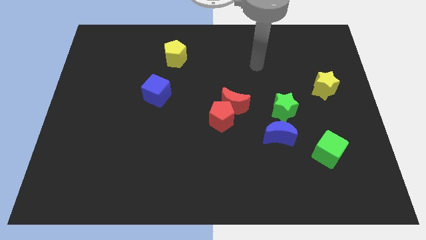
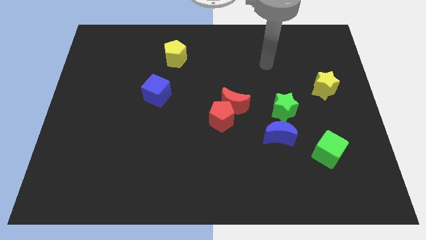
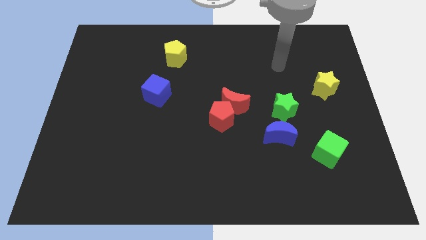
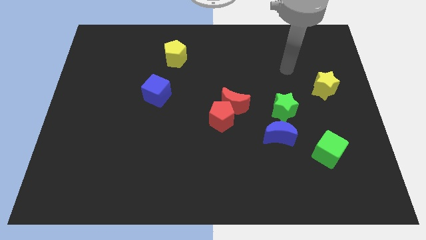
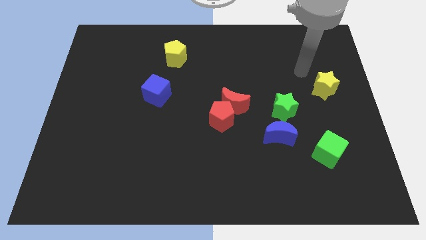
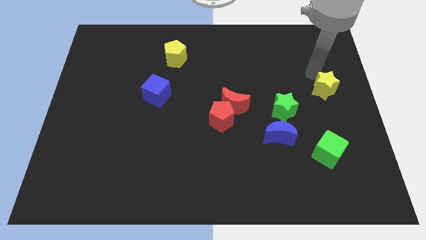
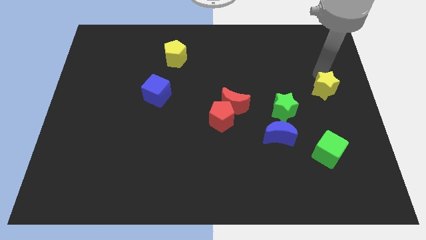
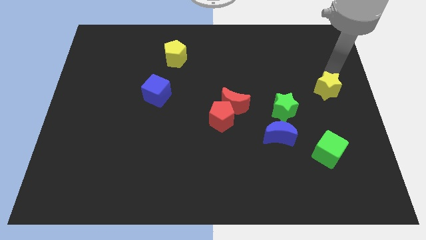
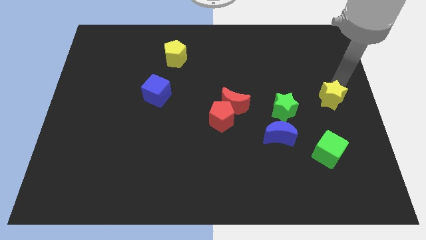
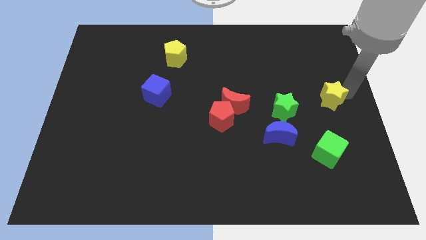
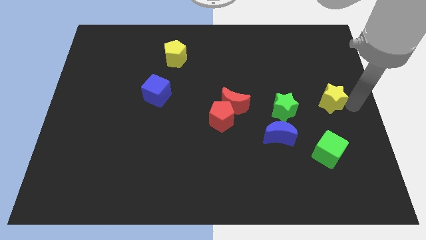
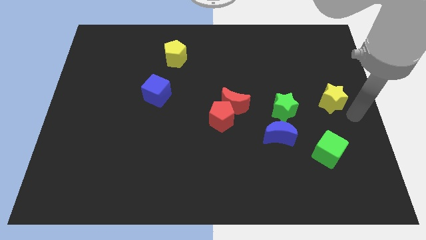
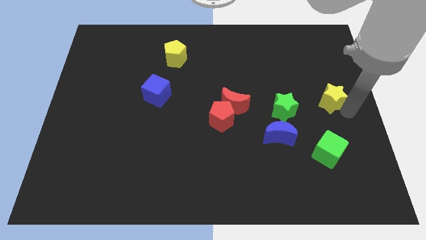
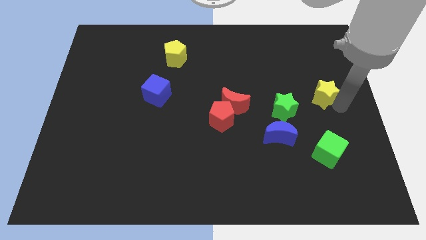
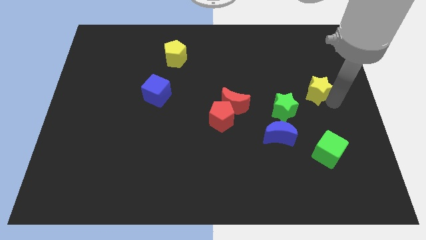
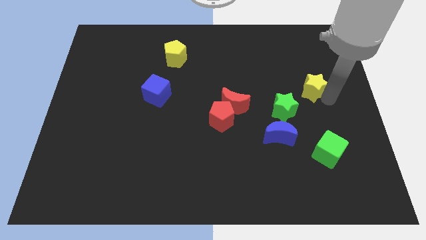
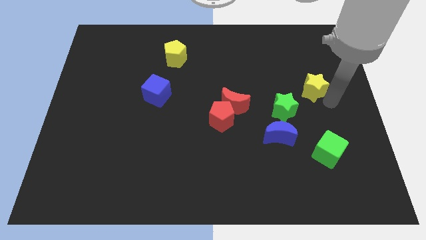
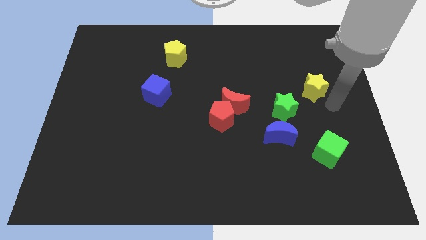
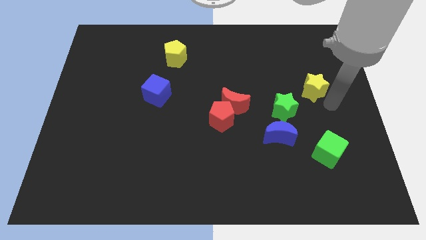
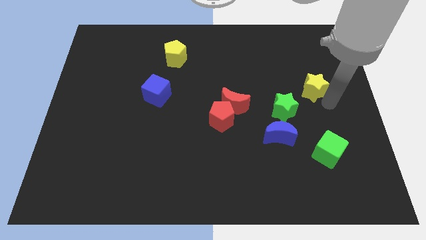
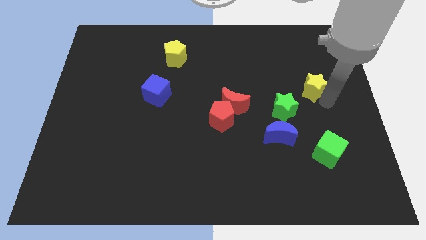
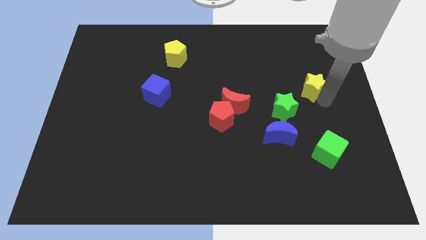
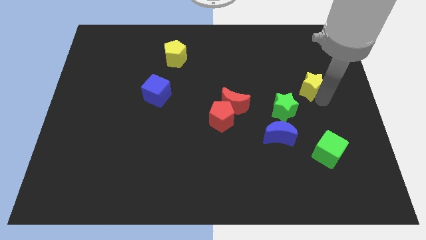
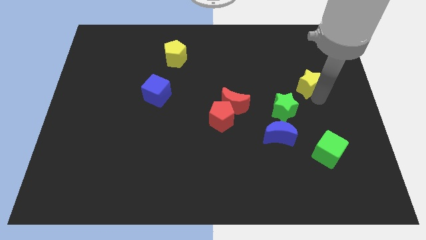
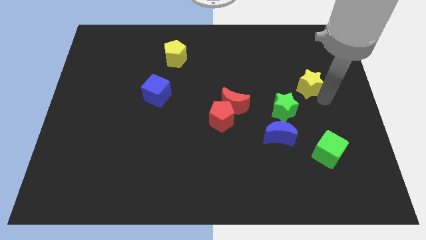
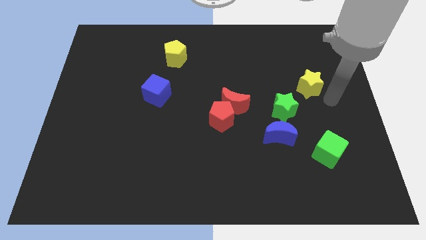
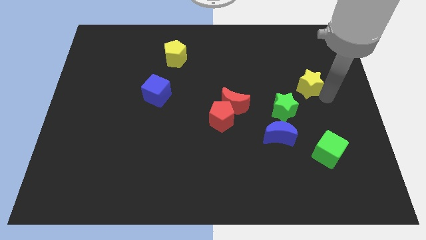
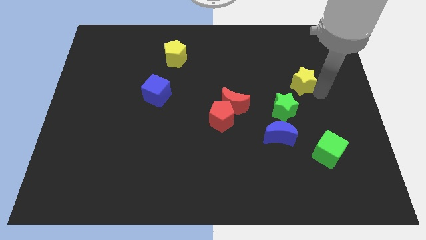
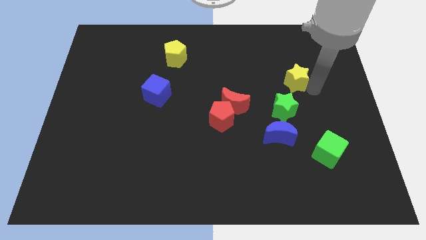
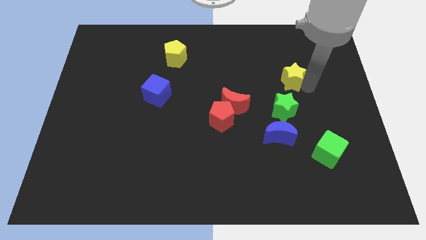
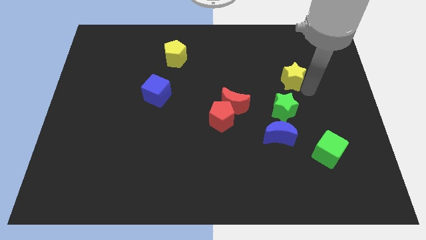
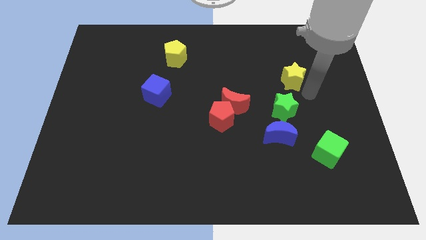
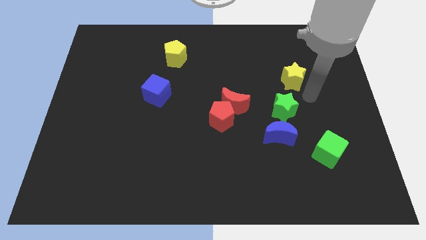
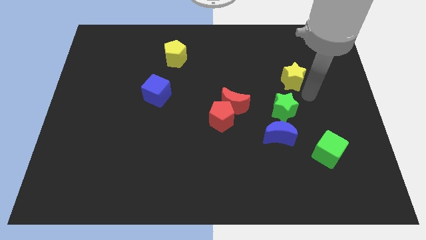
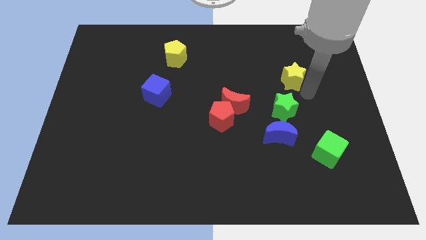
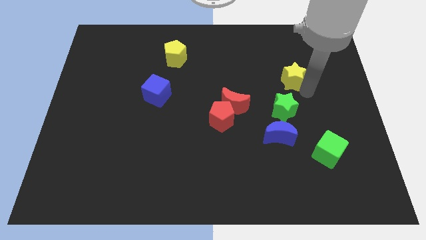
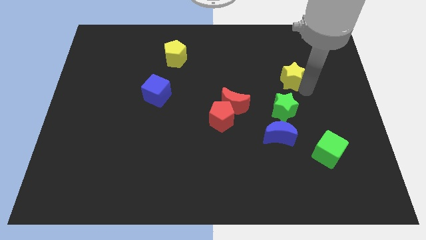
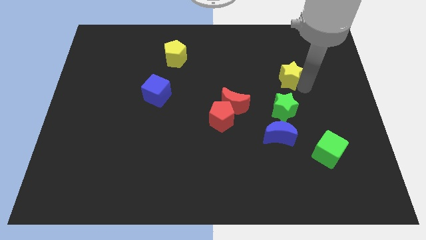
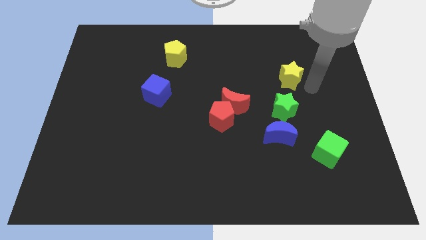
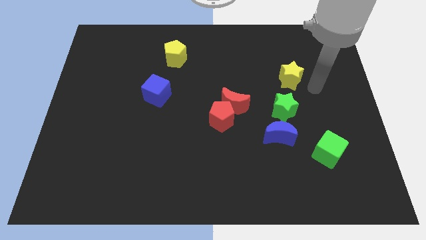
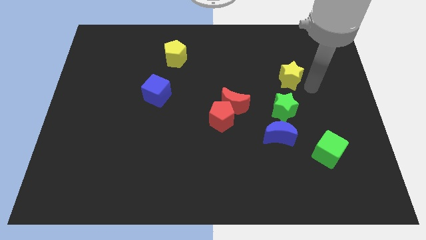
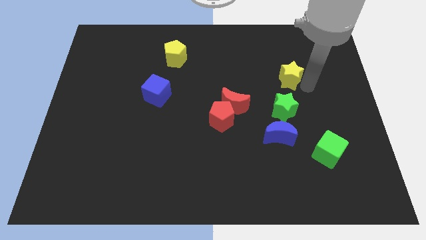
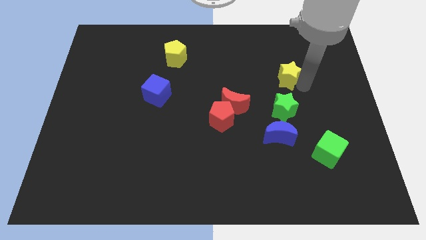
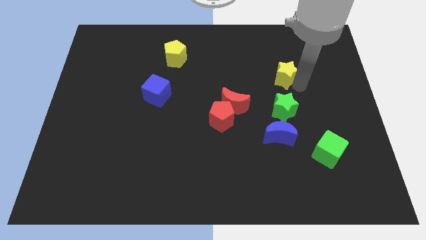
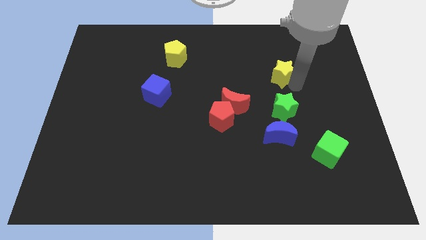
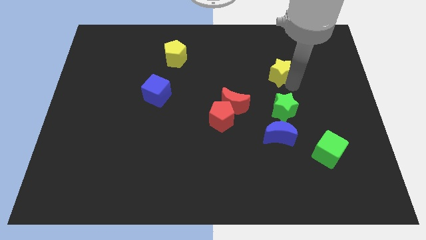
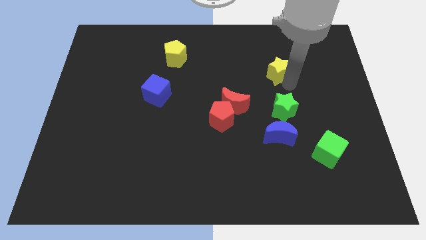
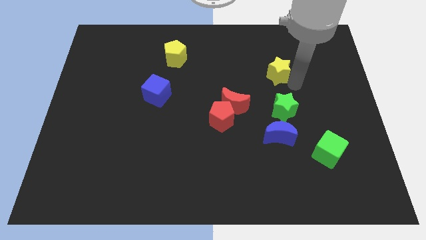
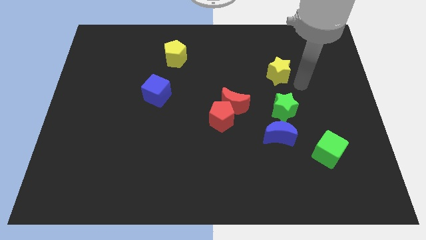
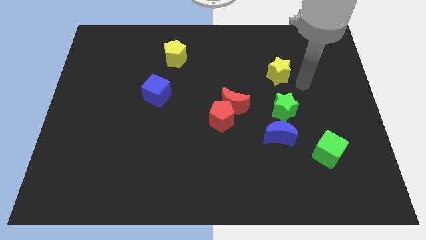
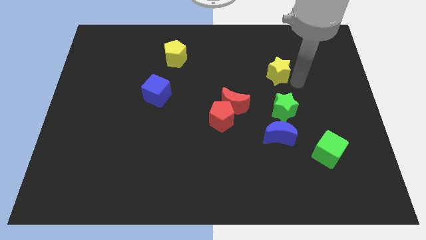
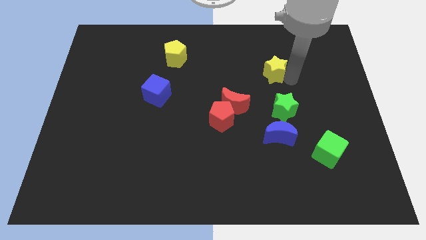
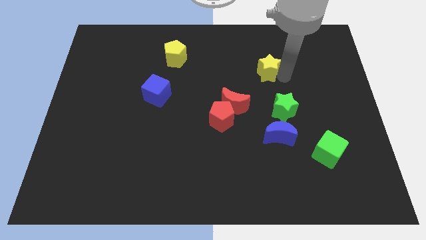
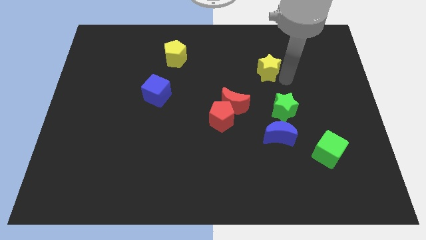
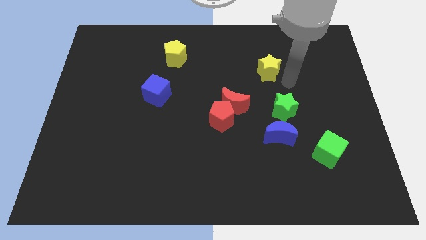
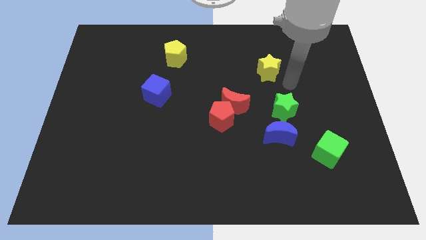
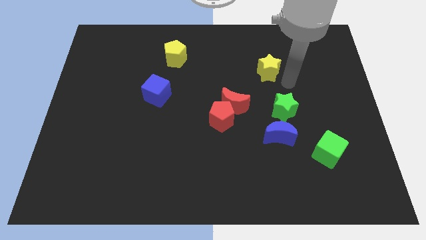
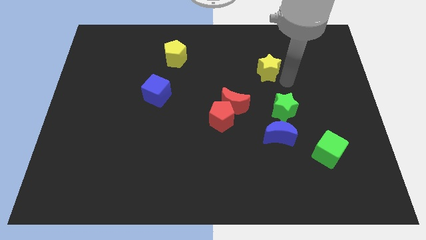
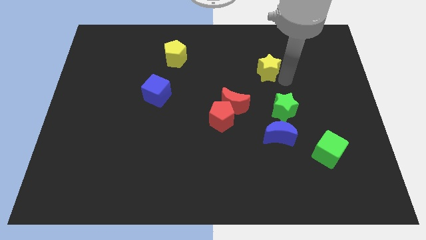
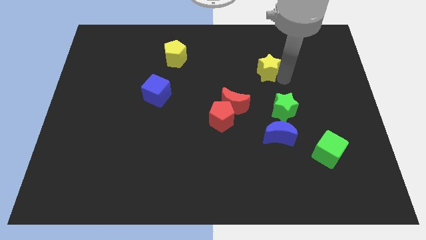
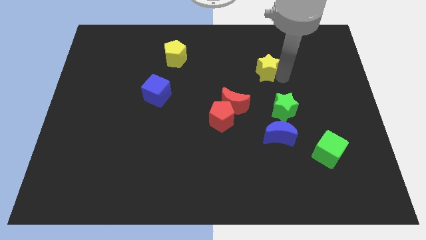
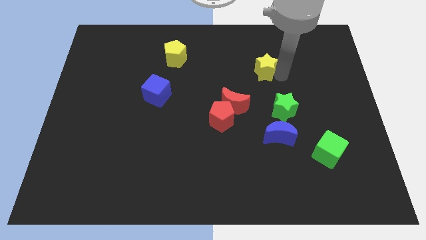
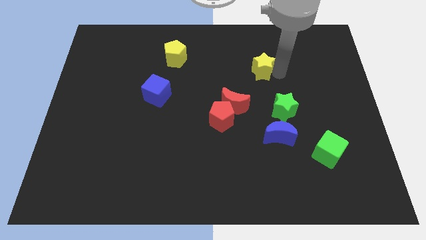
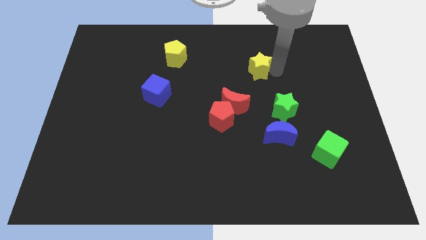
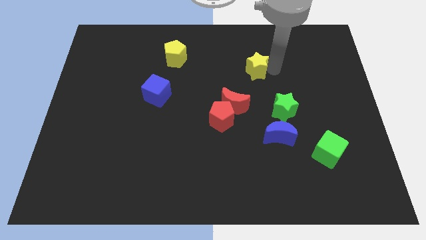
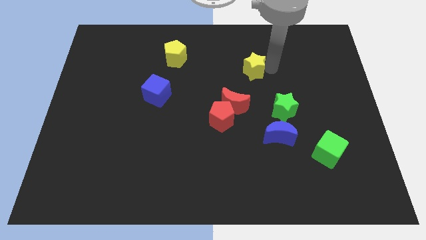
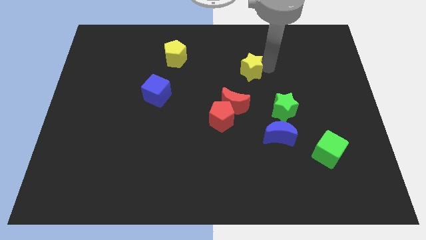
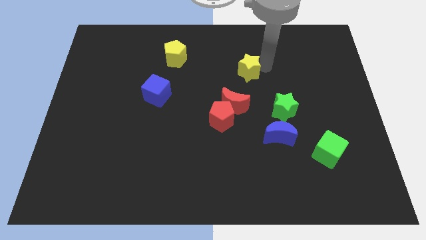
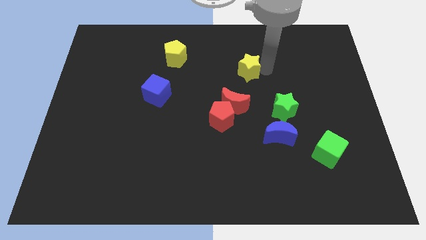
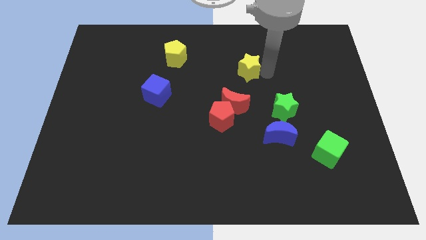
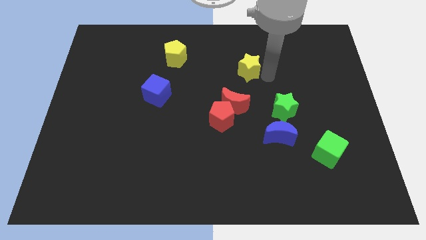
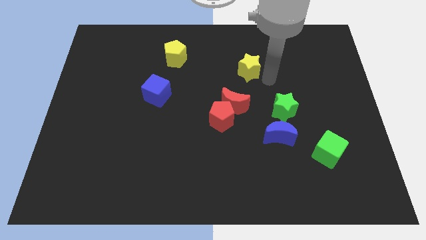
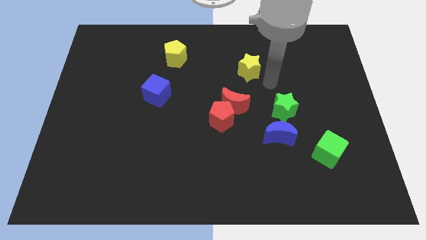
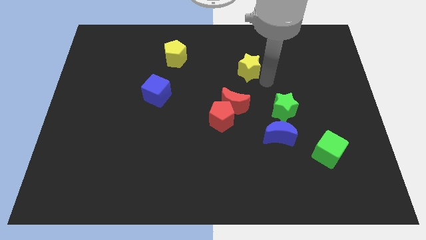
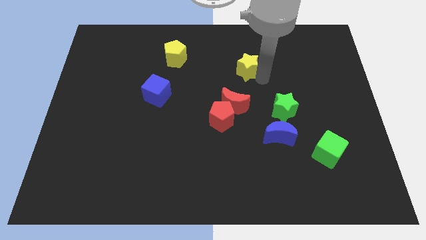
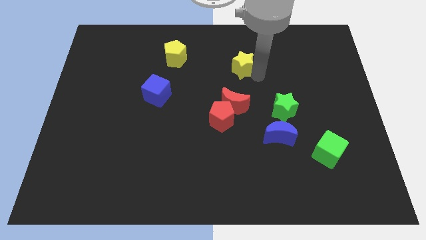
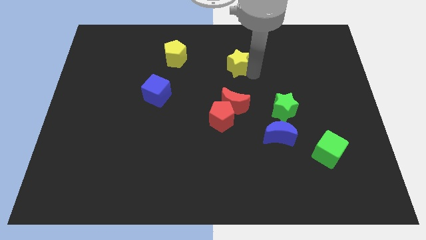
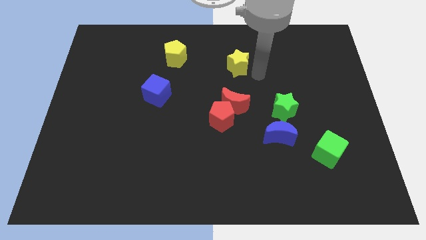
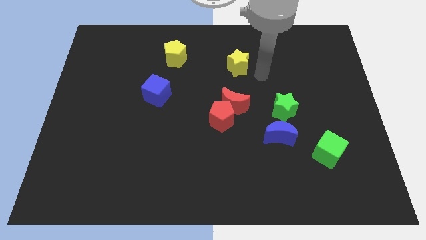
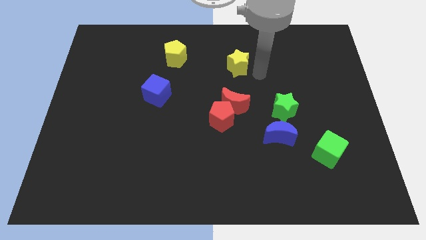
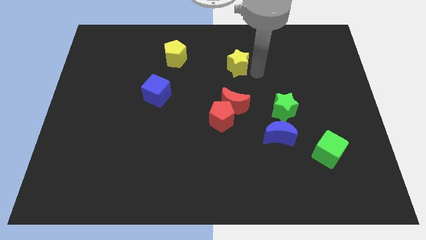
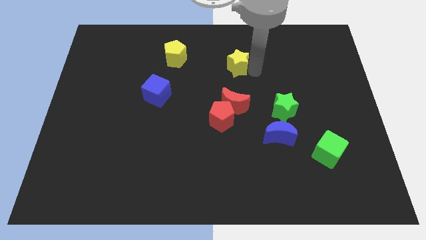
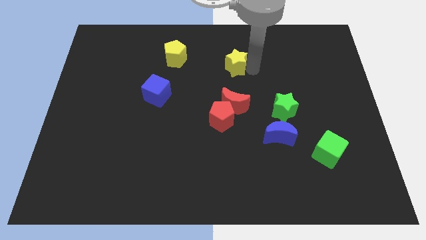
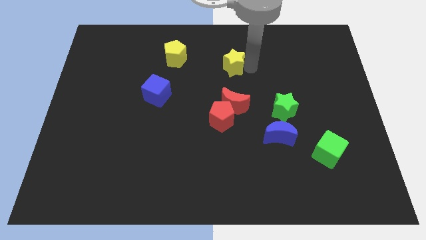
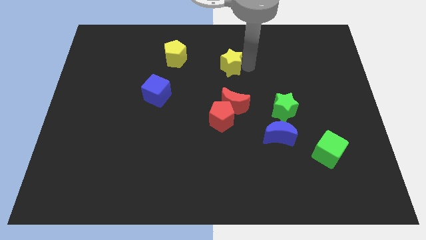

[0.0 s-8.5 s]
push the yellow star to the right side of the yellow pentagon
